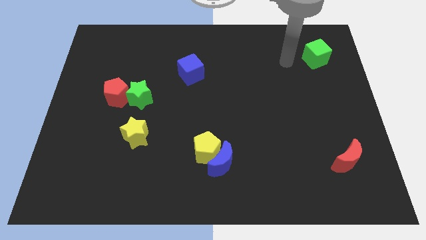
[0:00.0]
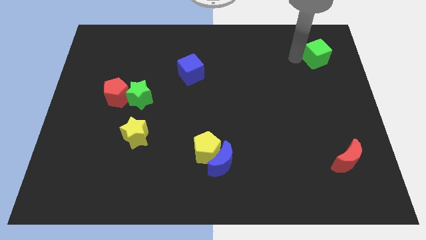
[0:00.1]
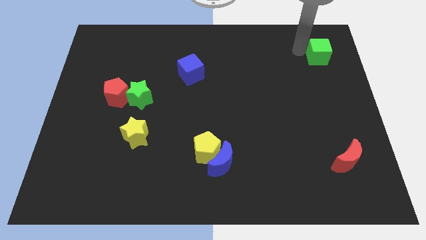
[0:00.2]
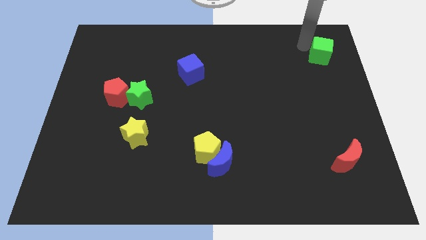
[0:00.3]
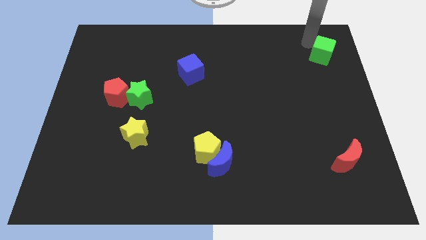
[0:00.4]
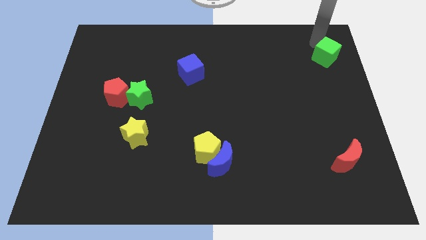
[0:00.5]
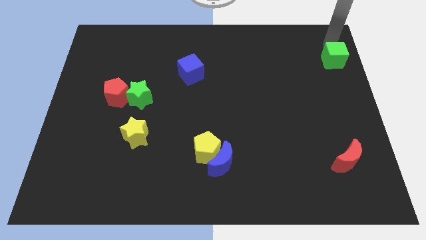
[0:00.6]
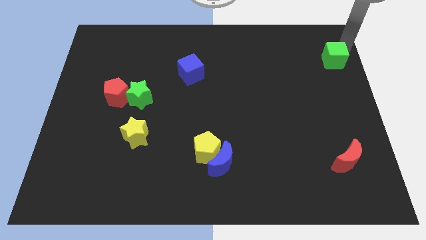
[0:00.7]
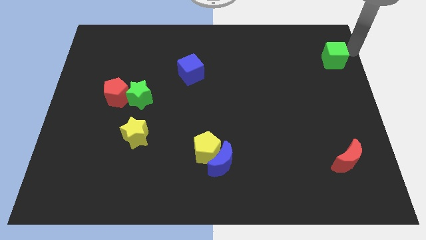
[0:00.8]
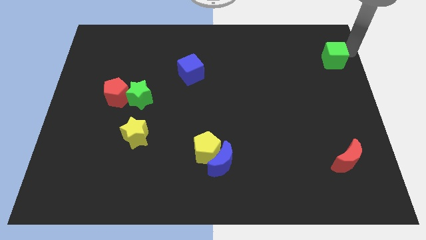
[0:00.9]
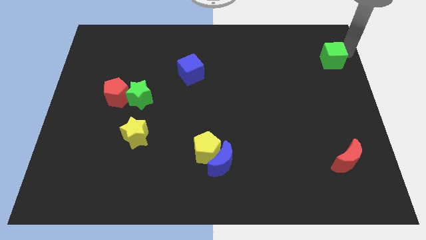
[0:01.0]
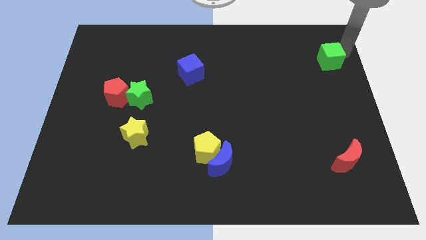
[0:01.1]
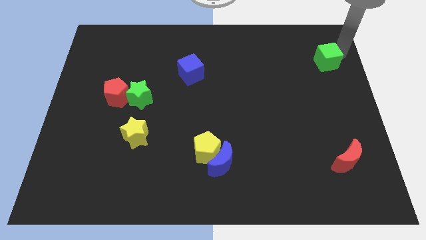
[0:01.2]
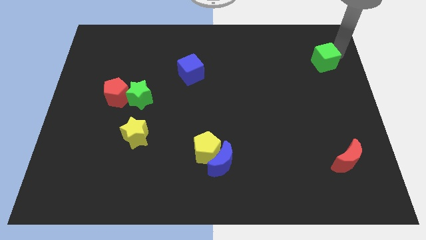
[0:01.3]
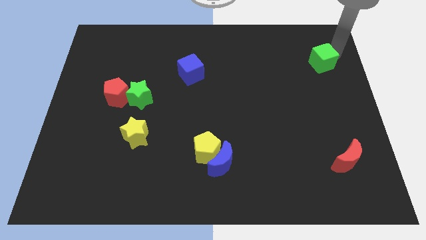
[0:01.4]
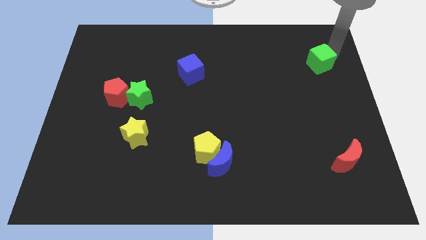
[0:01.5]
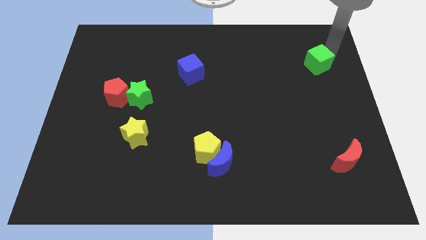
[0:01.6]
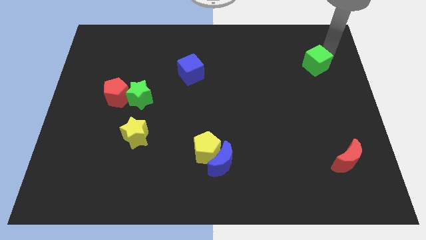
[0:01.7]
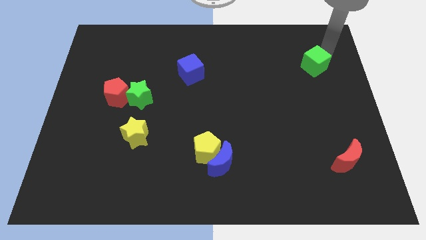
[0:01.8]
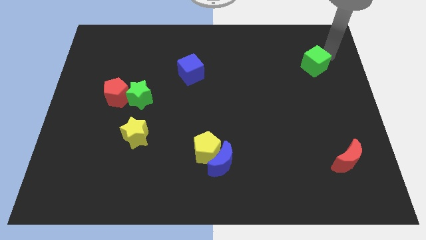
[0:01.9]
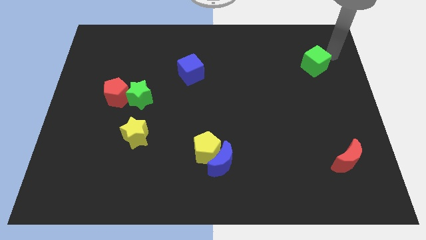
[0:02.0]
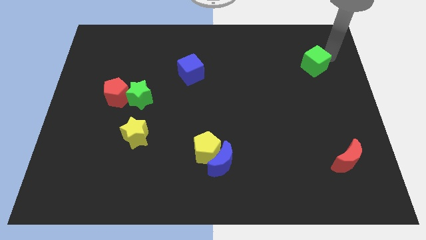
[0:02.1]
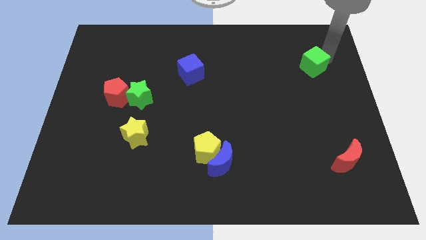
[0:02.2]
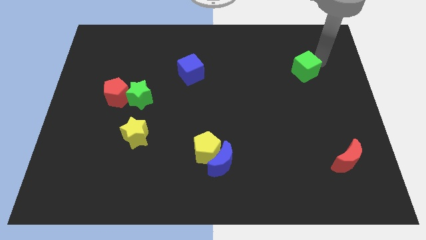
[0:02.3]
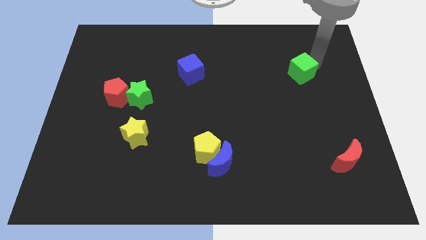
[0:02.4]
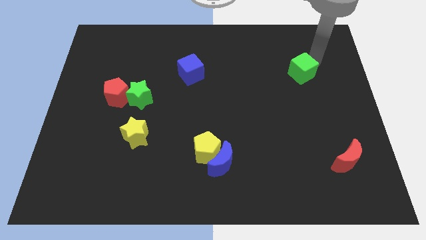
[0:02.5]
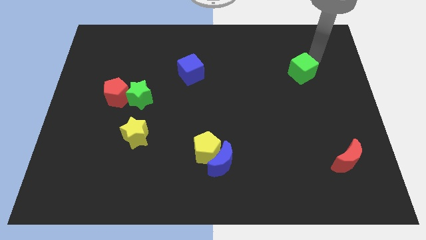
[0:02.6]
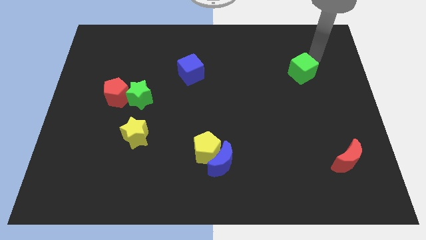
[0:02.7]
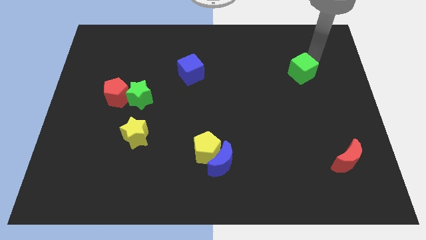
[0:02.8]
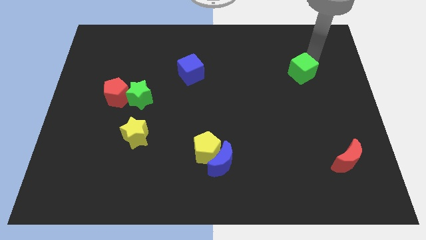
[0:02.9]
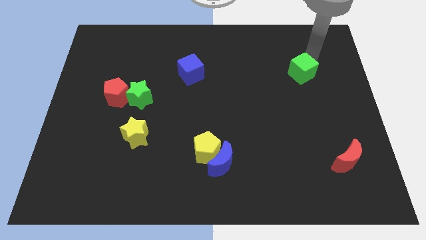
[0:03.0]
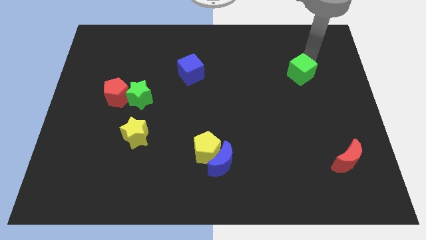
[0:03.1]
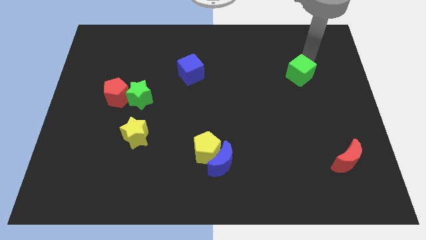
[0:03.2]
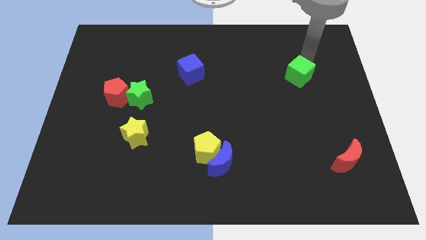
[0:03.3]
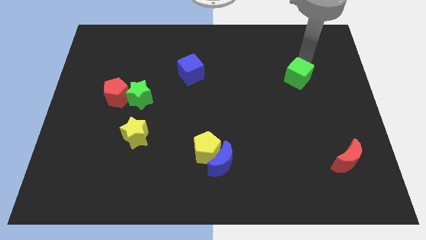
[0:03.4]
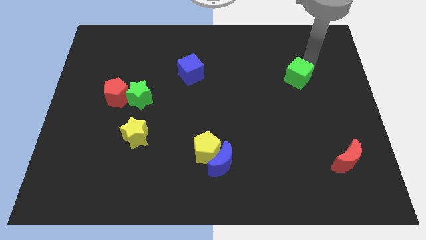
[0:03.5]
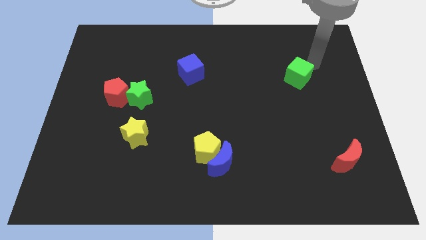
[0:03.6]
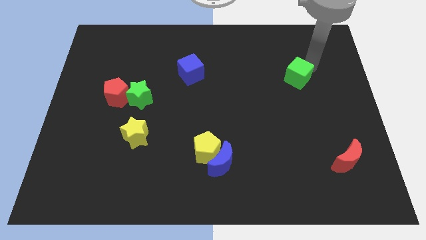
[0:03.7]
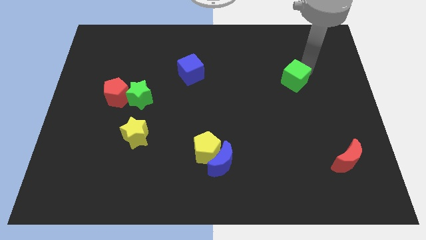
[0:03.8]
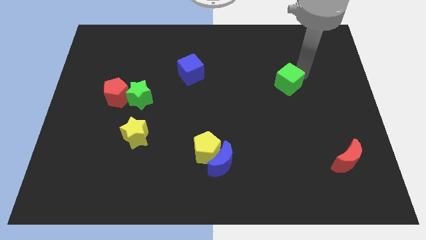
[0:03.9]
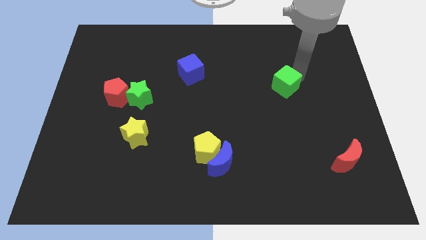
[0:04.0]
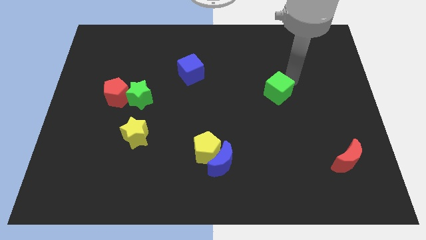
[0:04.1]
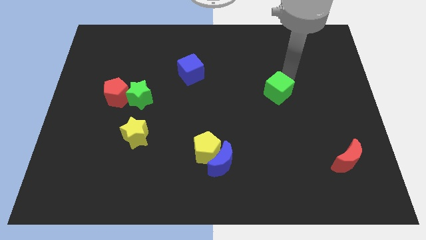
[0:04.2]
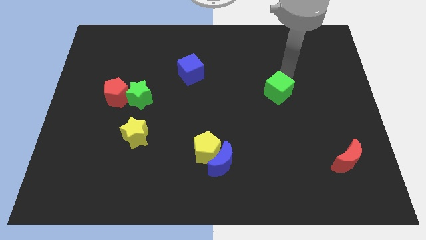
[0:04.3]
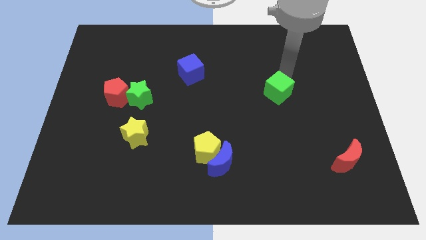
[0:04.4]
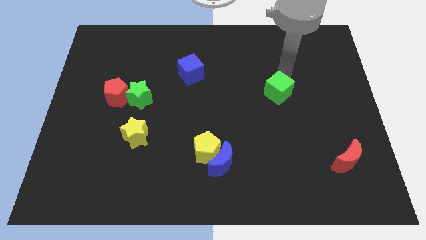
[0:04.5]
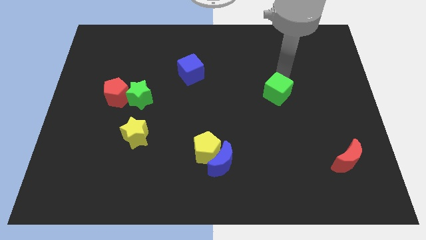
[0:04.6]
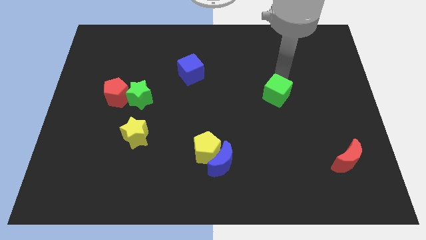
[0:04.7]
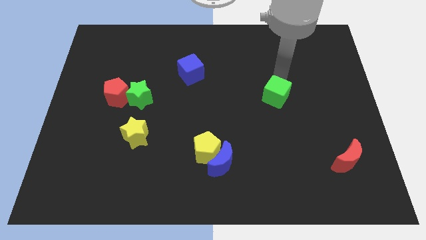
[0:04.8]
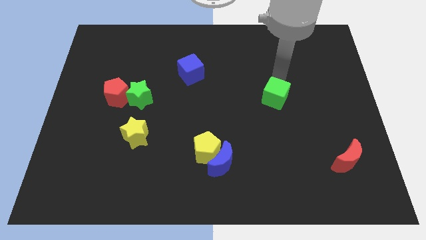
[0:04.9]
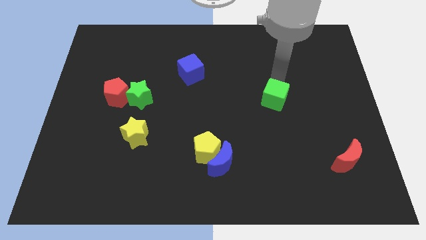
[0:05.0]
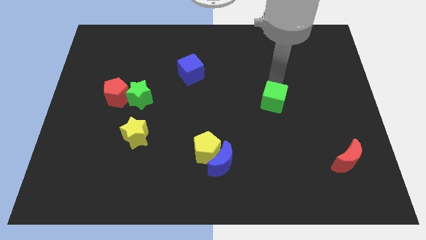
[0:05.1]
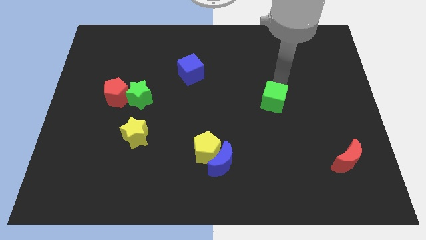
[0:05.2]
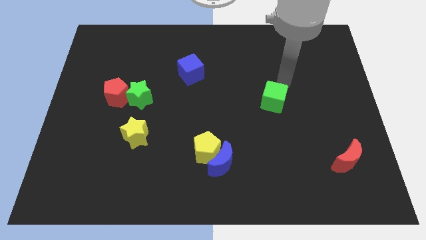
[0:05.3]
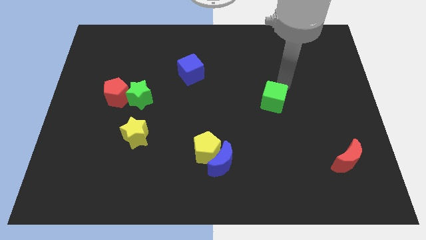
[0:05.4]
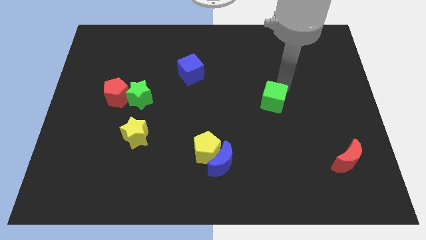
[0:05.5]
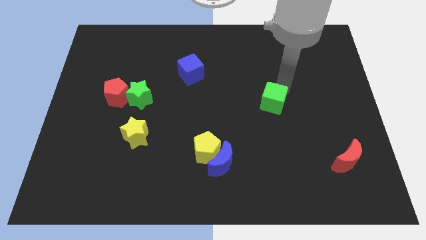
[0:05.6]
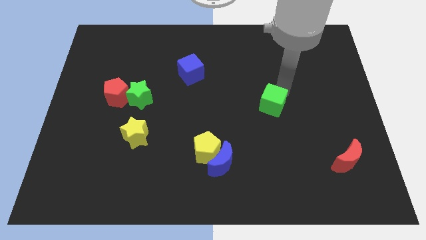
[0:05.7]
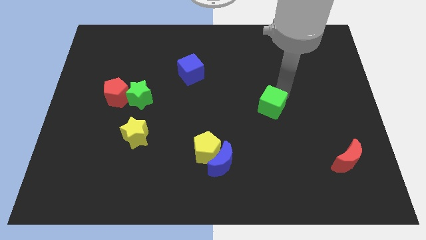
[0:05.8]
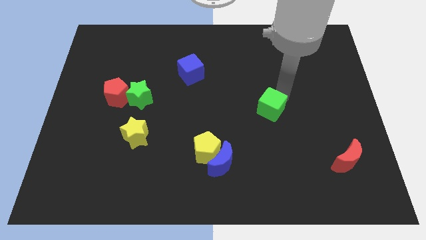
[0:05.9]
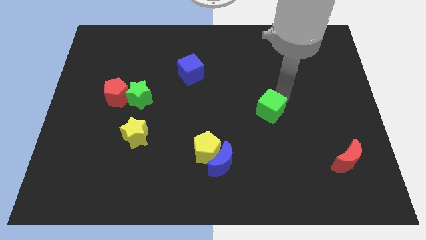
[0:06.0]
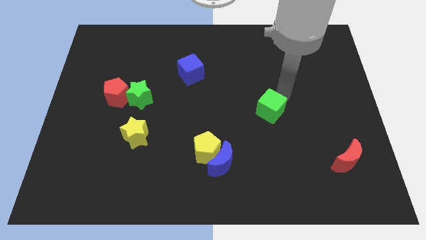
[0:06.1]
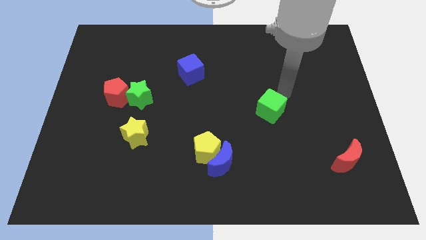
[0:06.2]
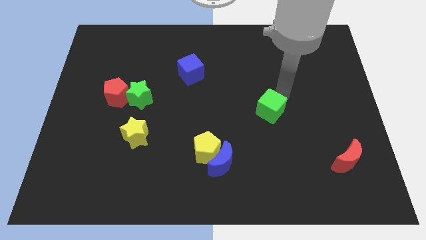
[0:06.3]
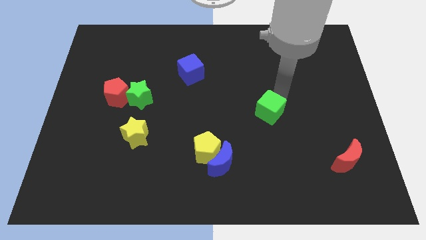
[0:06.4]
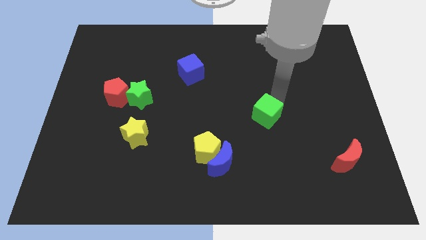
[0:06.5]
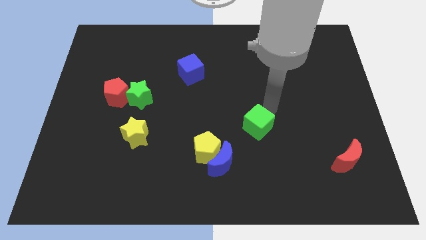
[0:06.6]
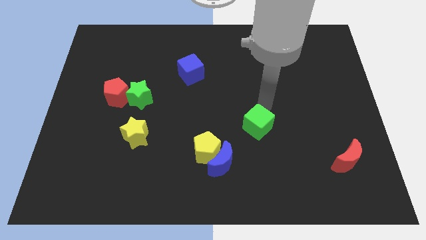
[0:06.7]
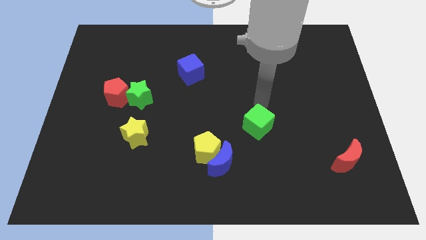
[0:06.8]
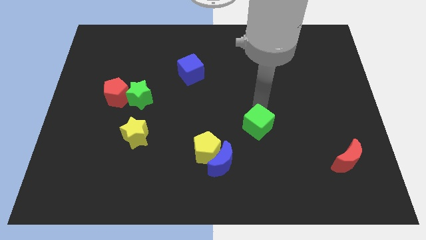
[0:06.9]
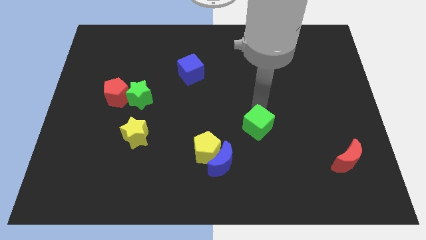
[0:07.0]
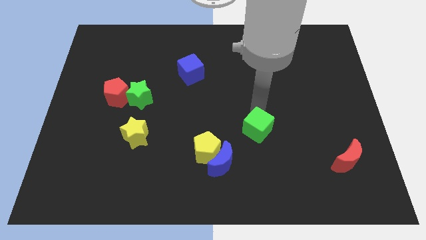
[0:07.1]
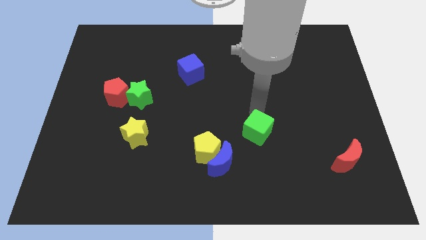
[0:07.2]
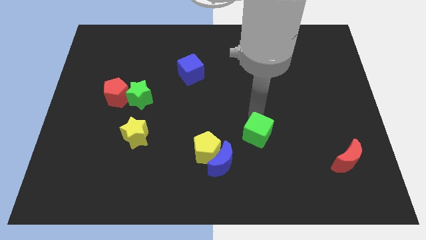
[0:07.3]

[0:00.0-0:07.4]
put the green cube to the right of the yellow pentagon
